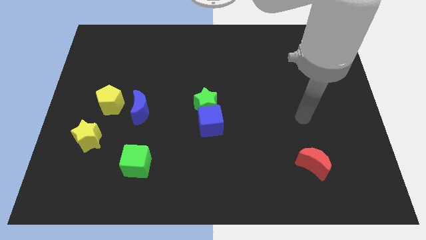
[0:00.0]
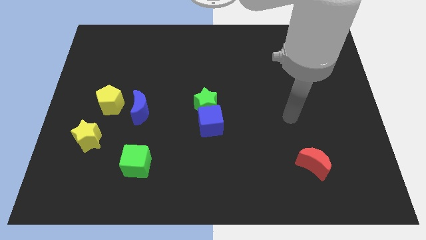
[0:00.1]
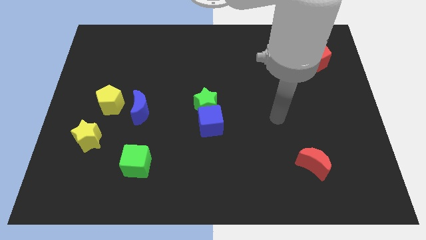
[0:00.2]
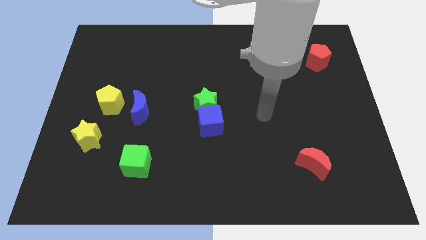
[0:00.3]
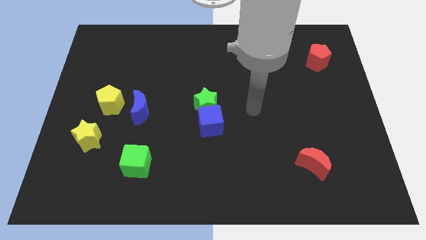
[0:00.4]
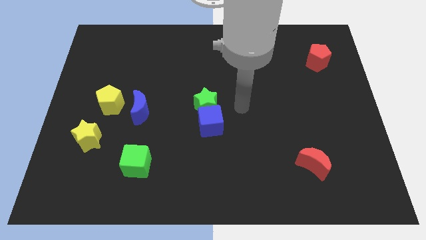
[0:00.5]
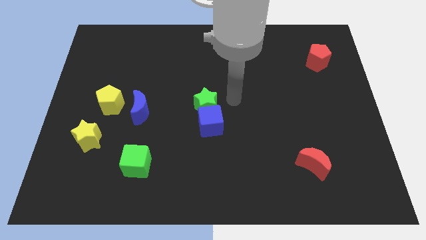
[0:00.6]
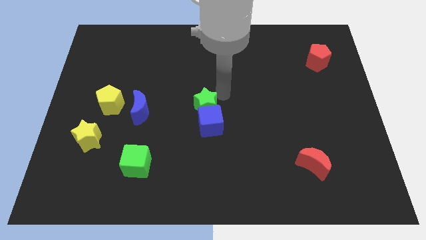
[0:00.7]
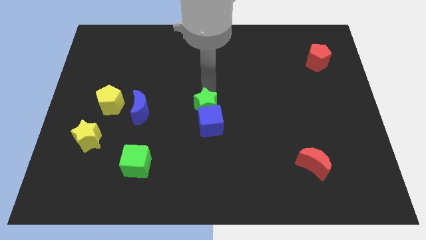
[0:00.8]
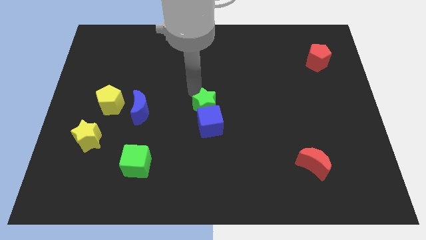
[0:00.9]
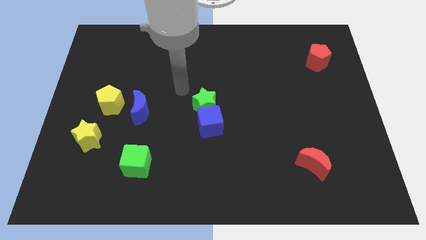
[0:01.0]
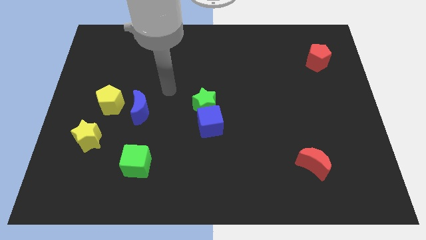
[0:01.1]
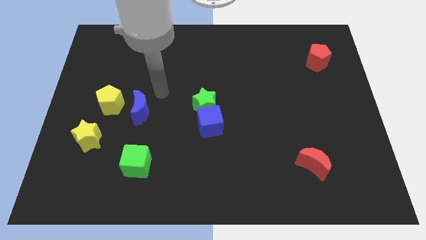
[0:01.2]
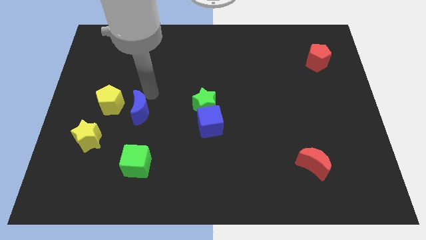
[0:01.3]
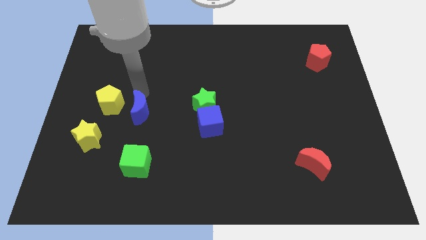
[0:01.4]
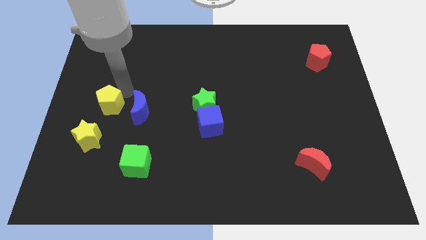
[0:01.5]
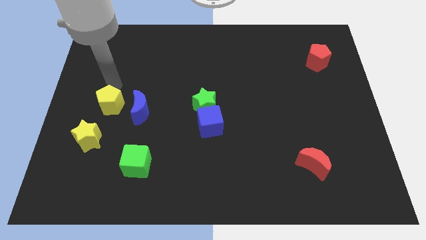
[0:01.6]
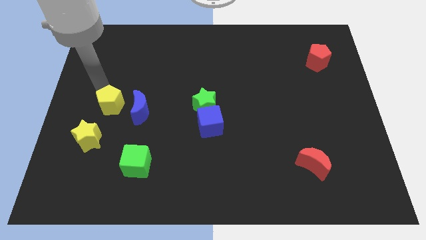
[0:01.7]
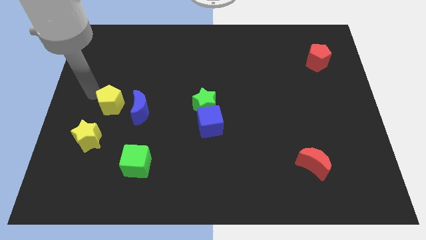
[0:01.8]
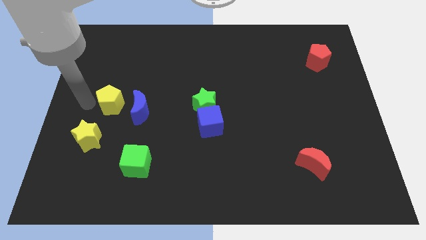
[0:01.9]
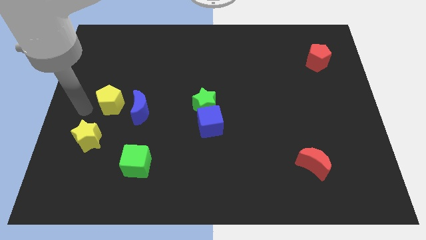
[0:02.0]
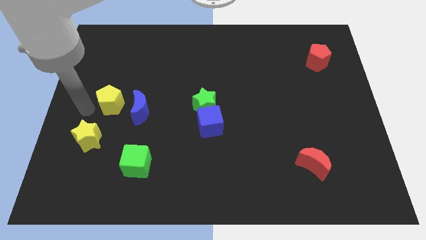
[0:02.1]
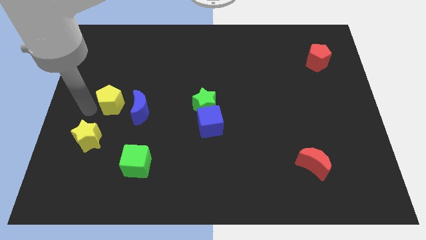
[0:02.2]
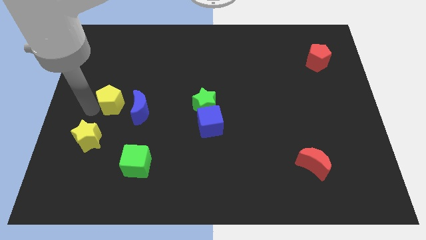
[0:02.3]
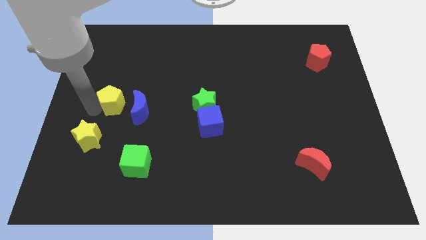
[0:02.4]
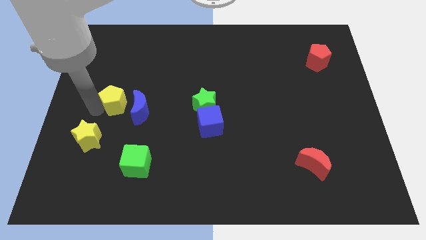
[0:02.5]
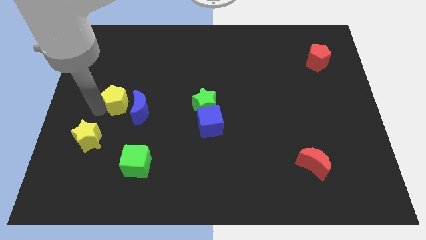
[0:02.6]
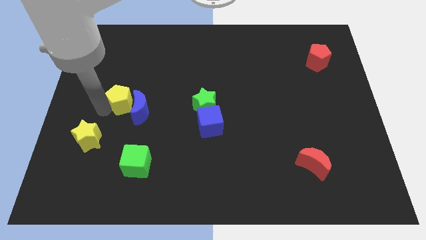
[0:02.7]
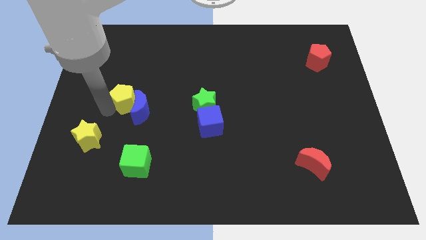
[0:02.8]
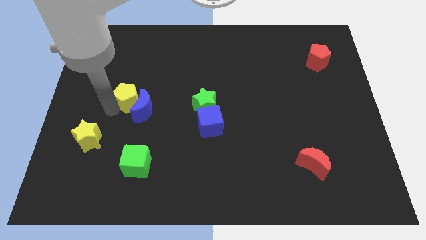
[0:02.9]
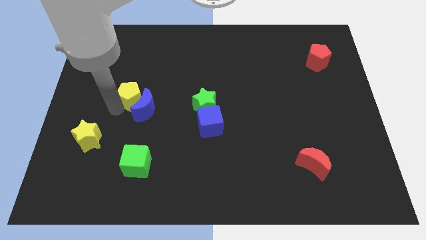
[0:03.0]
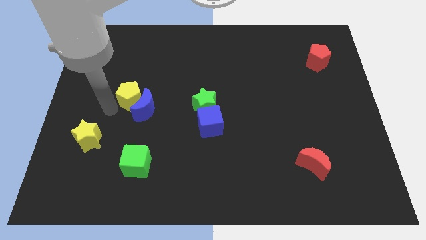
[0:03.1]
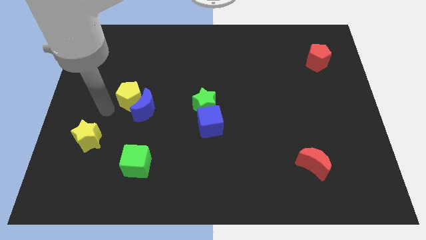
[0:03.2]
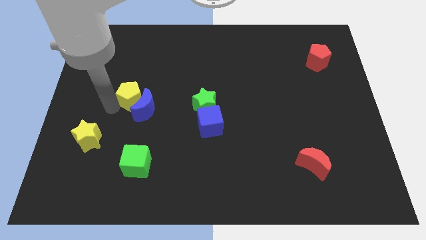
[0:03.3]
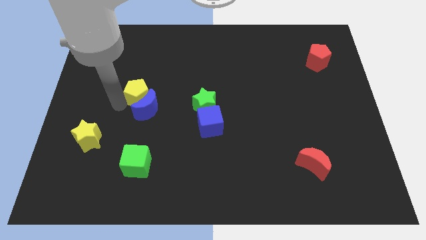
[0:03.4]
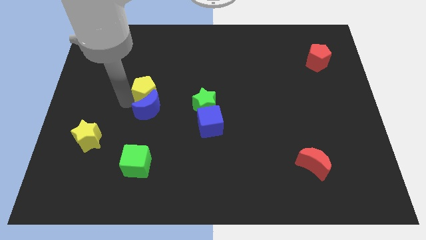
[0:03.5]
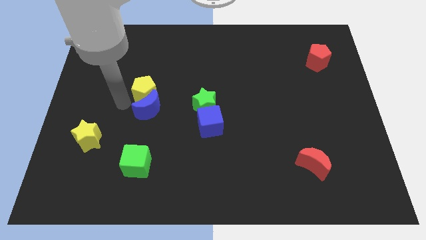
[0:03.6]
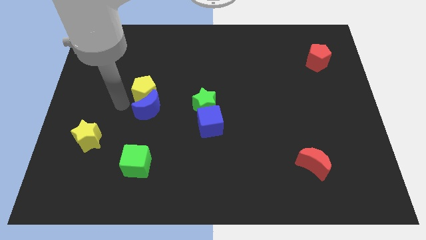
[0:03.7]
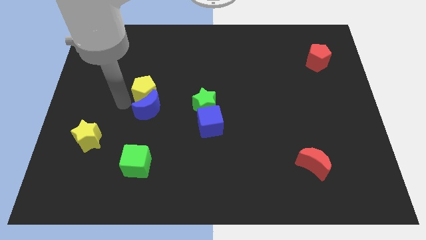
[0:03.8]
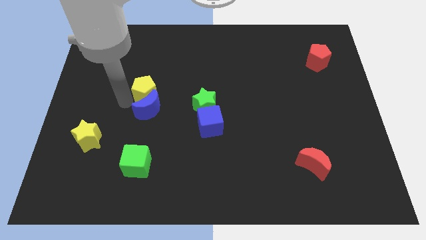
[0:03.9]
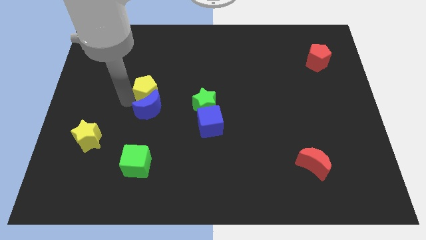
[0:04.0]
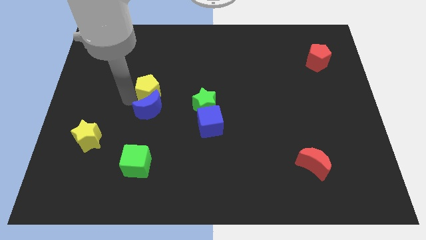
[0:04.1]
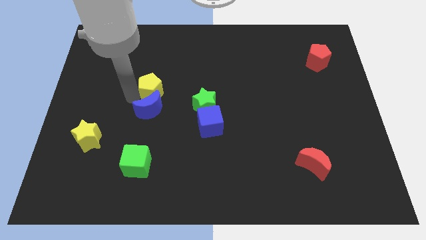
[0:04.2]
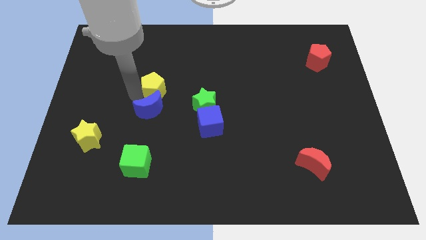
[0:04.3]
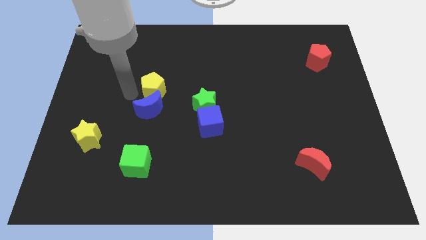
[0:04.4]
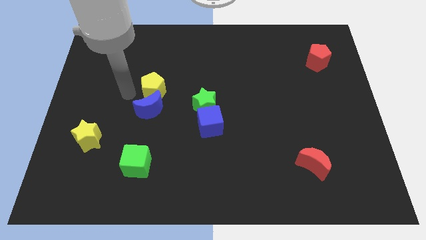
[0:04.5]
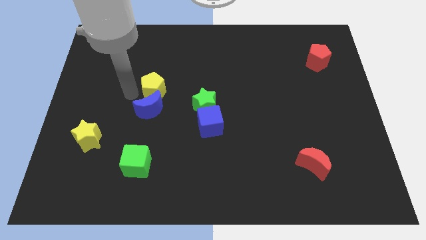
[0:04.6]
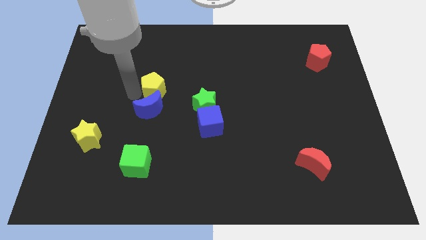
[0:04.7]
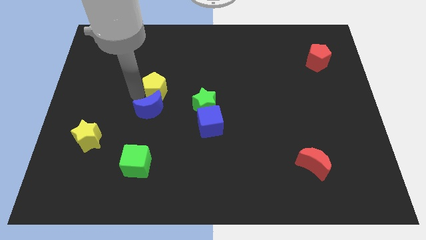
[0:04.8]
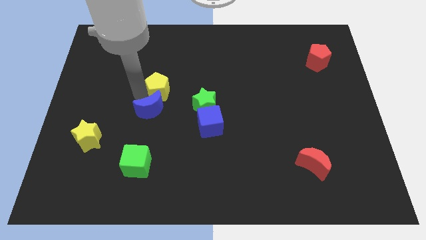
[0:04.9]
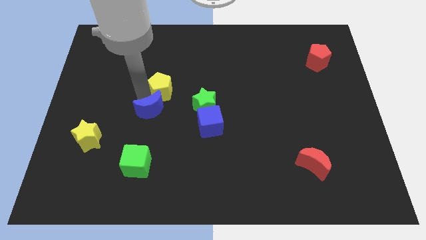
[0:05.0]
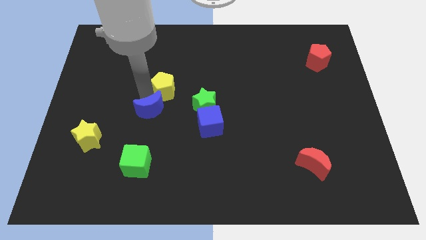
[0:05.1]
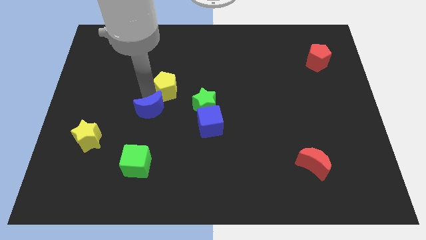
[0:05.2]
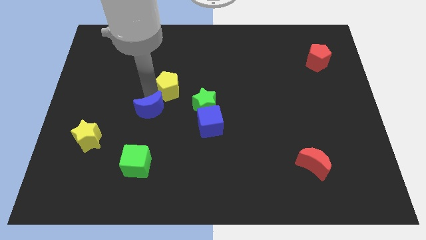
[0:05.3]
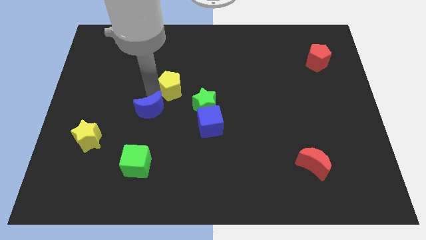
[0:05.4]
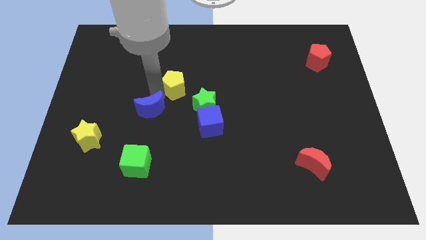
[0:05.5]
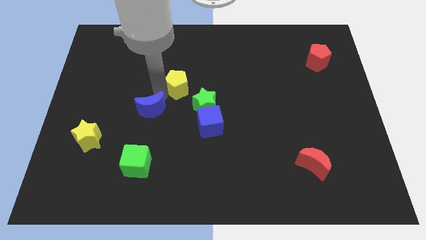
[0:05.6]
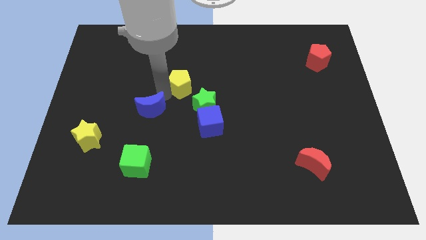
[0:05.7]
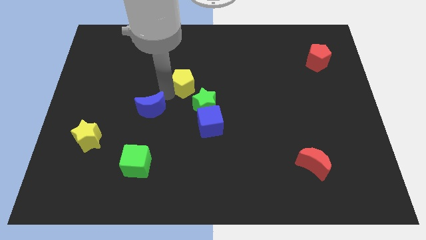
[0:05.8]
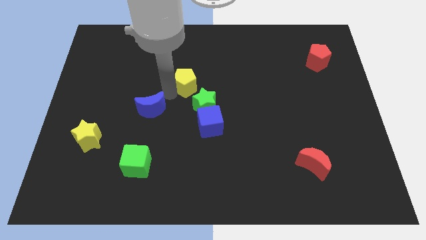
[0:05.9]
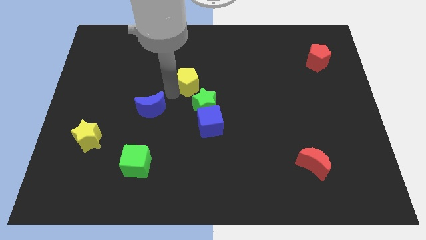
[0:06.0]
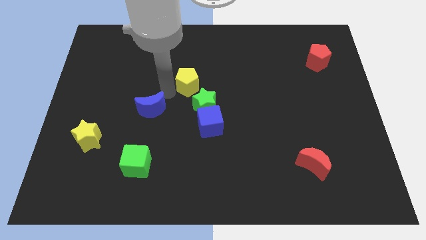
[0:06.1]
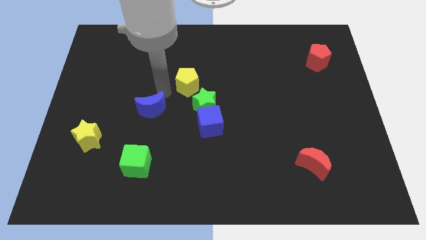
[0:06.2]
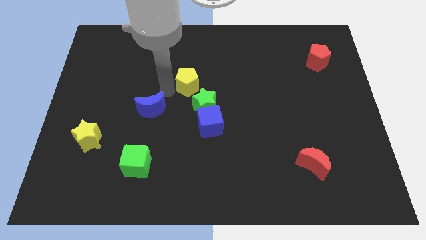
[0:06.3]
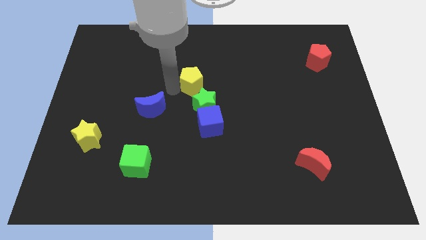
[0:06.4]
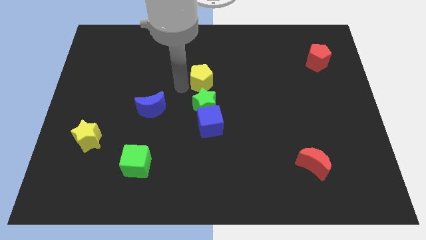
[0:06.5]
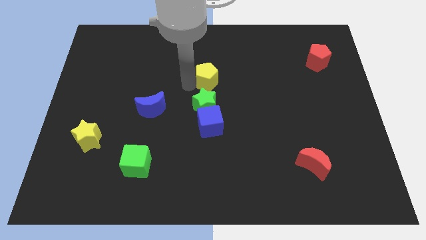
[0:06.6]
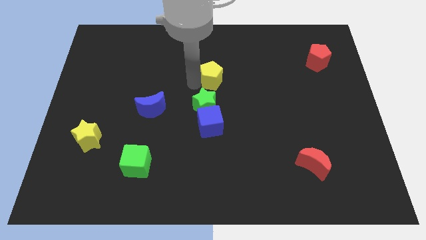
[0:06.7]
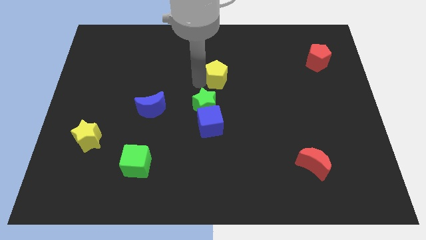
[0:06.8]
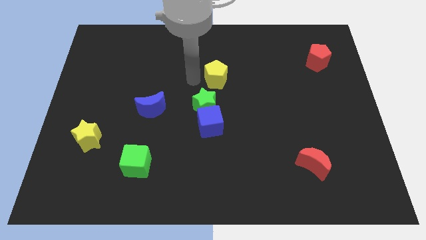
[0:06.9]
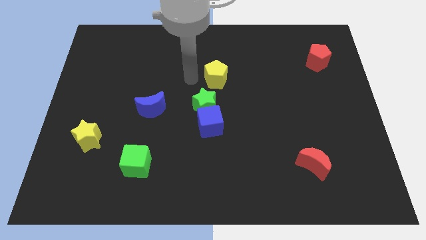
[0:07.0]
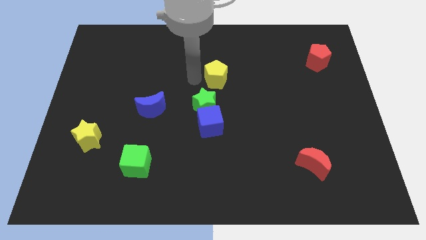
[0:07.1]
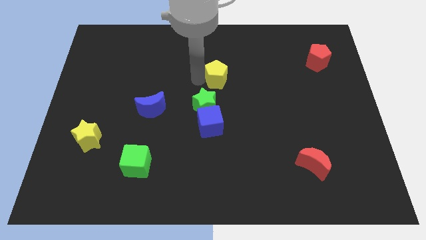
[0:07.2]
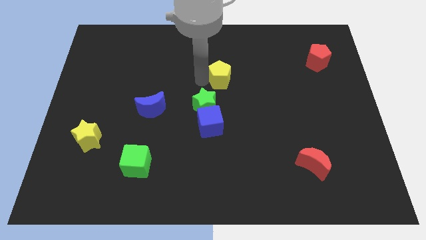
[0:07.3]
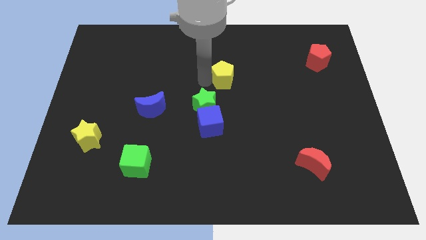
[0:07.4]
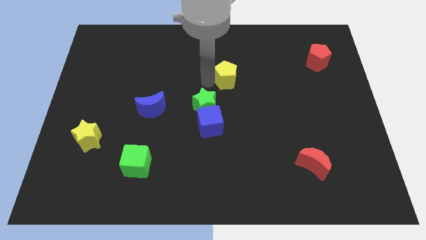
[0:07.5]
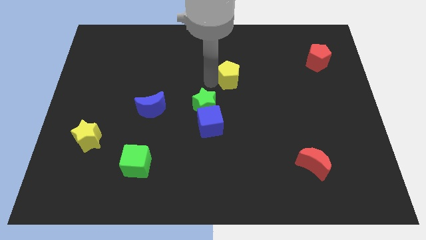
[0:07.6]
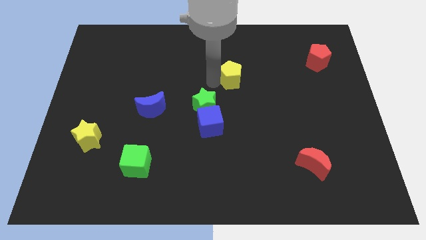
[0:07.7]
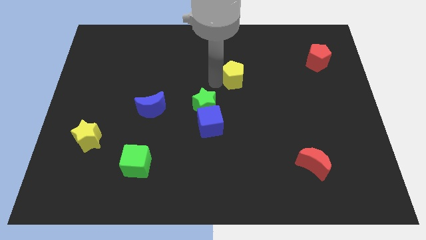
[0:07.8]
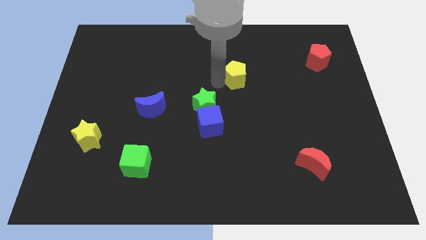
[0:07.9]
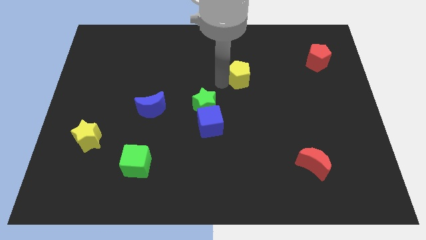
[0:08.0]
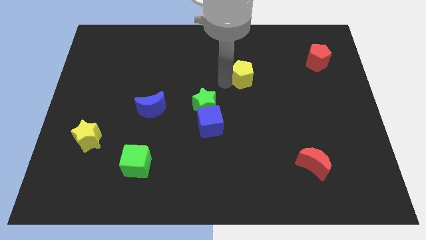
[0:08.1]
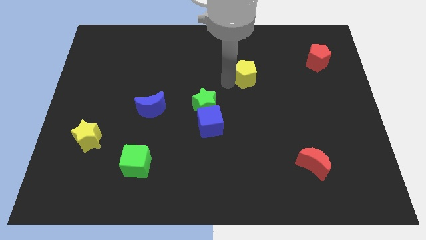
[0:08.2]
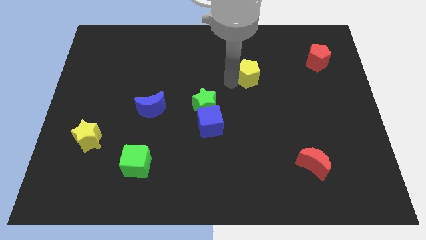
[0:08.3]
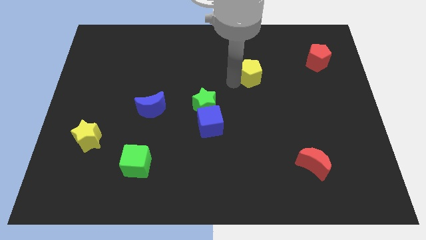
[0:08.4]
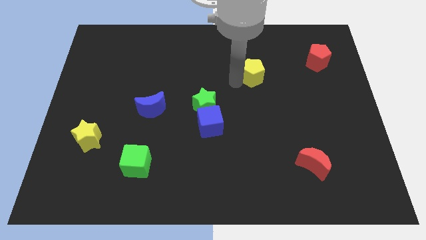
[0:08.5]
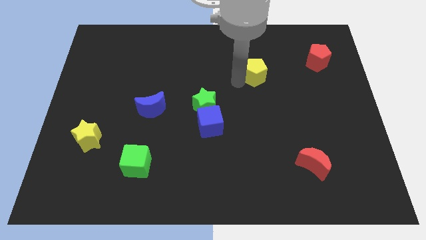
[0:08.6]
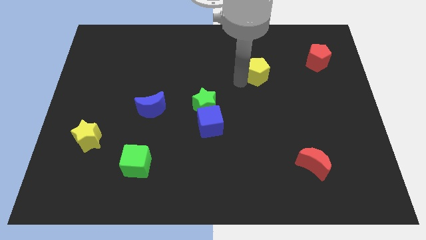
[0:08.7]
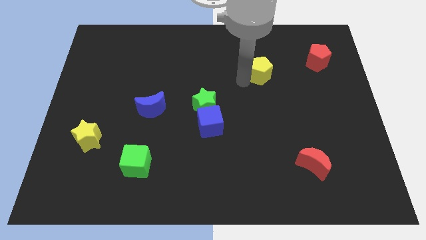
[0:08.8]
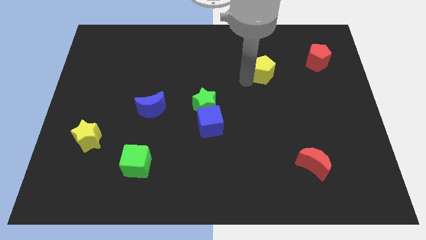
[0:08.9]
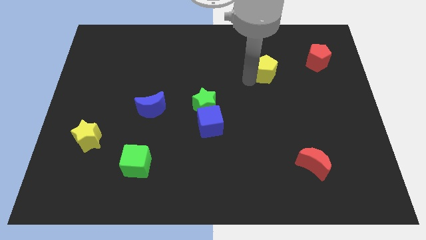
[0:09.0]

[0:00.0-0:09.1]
put the yellow pentagon to the left side of the red pentagon
